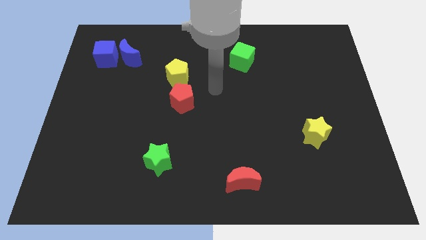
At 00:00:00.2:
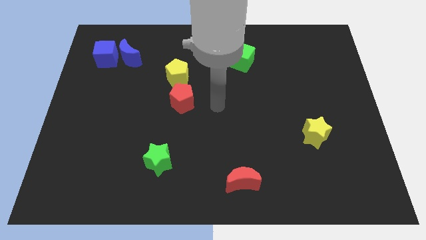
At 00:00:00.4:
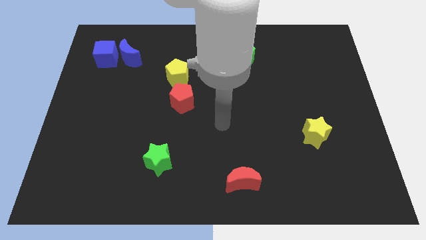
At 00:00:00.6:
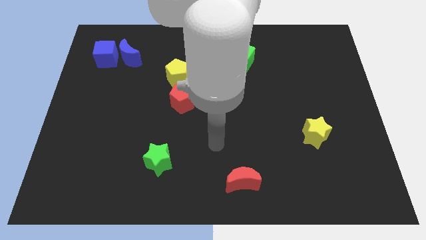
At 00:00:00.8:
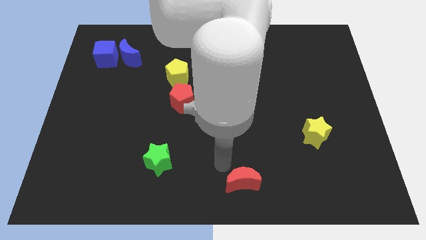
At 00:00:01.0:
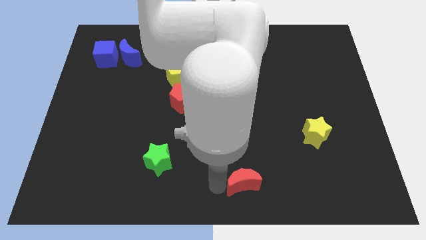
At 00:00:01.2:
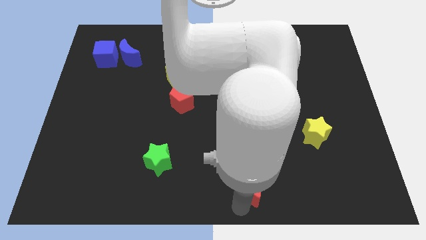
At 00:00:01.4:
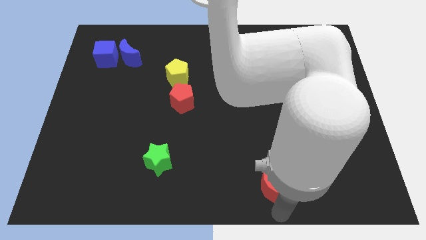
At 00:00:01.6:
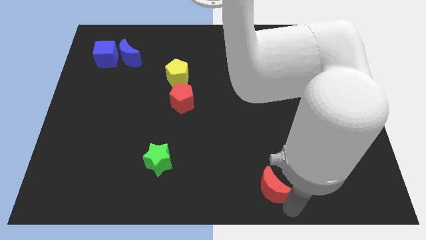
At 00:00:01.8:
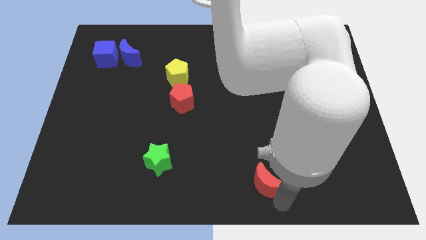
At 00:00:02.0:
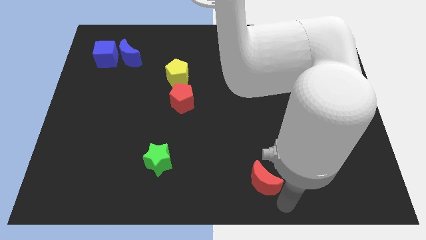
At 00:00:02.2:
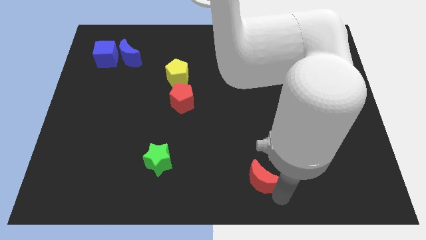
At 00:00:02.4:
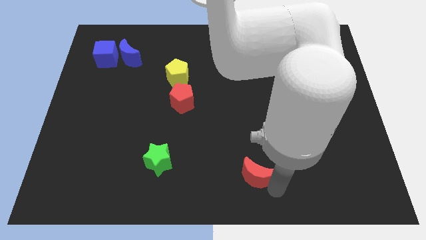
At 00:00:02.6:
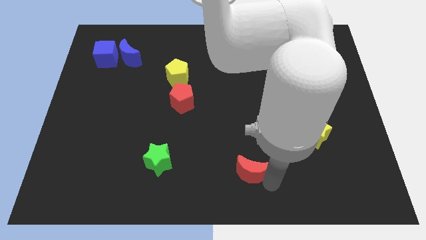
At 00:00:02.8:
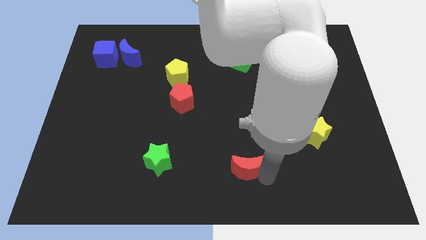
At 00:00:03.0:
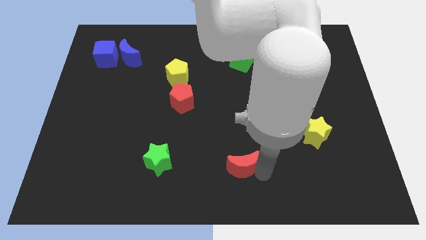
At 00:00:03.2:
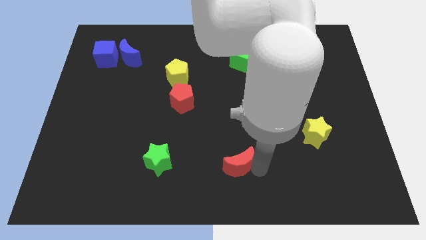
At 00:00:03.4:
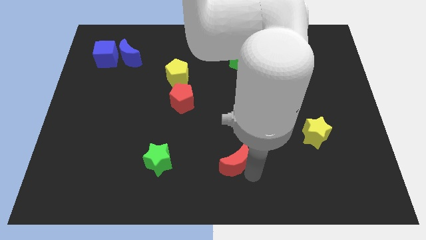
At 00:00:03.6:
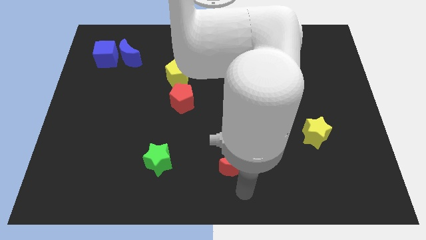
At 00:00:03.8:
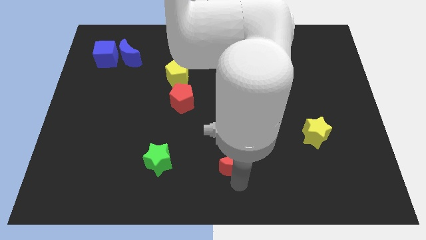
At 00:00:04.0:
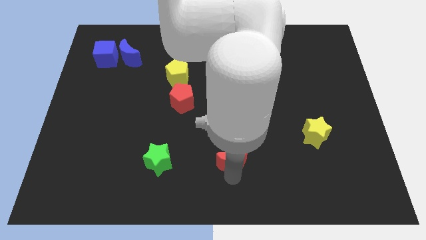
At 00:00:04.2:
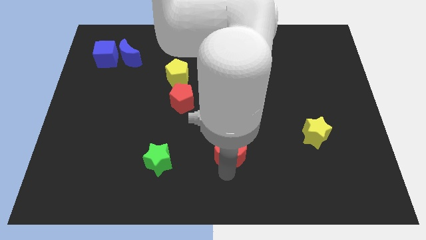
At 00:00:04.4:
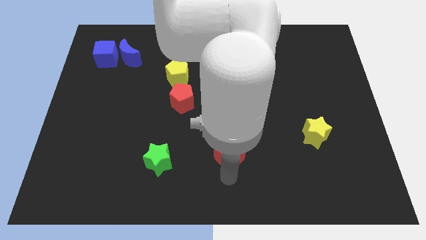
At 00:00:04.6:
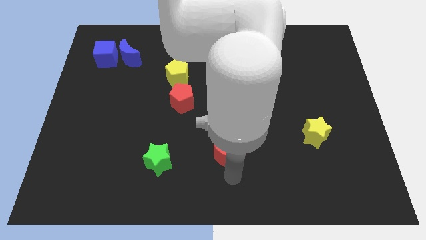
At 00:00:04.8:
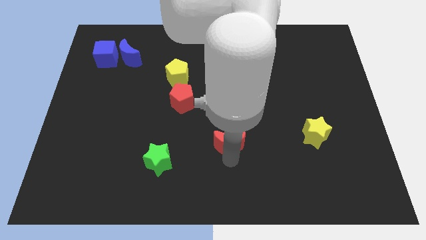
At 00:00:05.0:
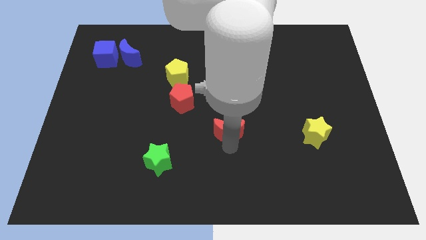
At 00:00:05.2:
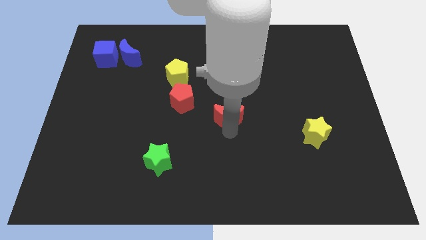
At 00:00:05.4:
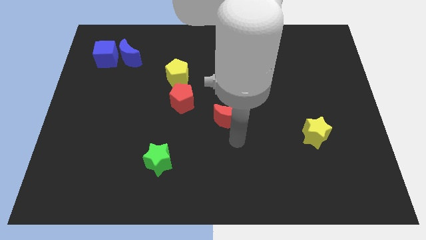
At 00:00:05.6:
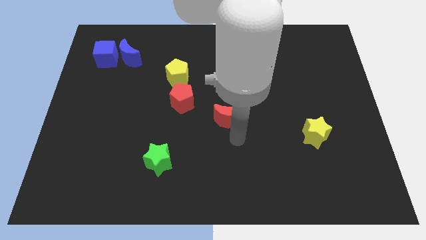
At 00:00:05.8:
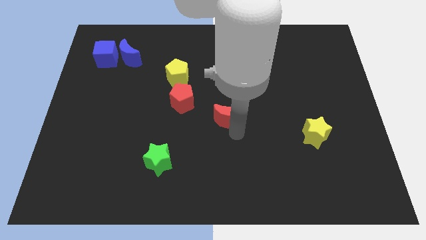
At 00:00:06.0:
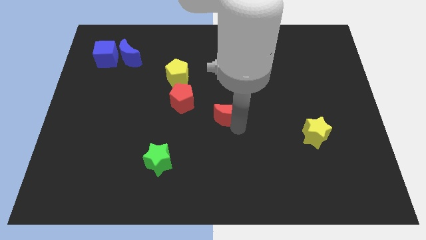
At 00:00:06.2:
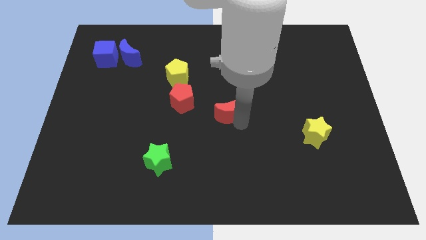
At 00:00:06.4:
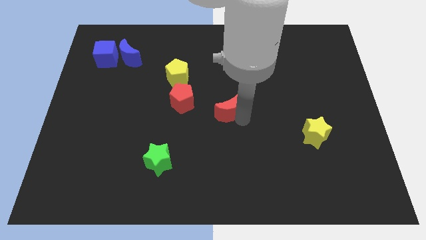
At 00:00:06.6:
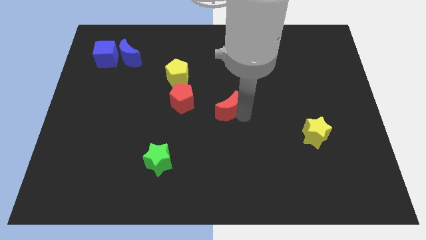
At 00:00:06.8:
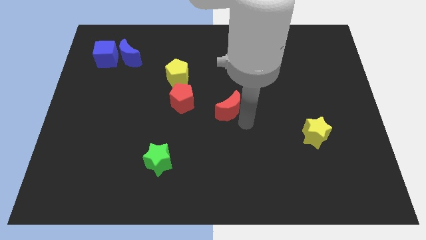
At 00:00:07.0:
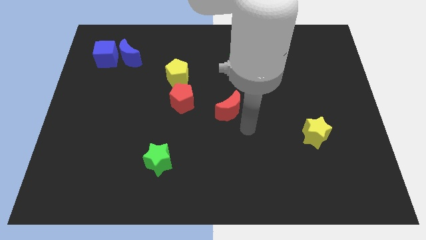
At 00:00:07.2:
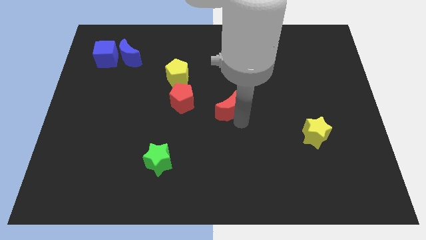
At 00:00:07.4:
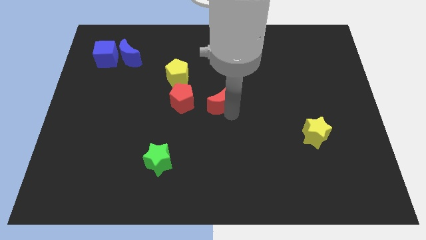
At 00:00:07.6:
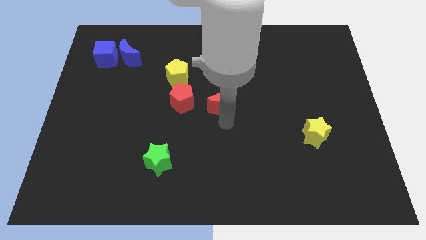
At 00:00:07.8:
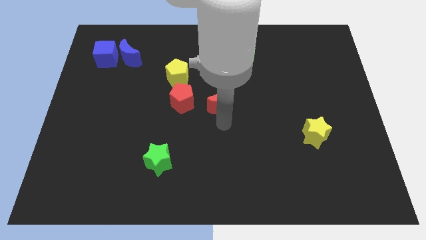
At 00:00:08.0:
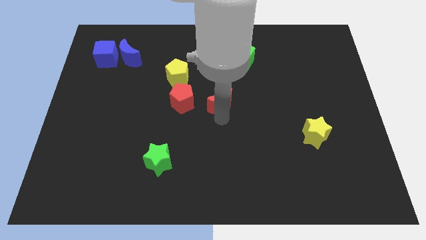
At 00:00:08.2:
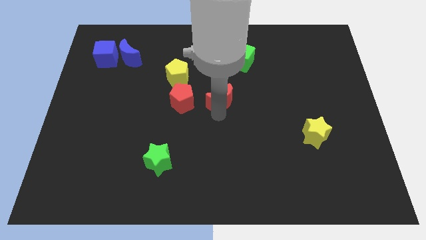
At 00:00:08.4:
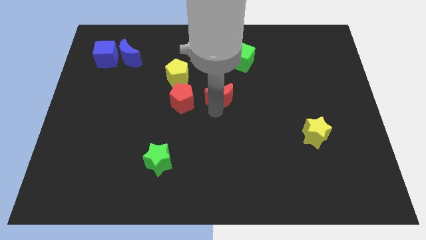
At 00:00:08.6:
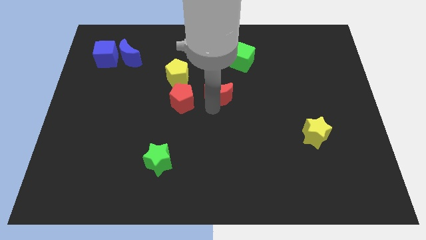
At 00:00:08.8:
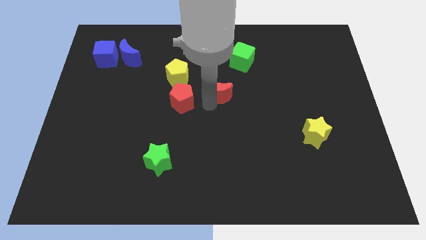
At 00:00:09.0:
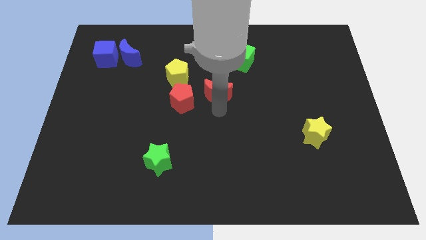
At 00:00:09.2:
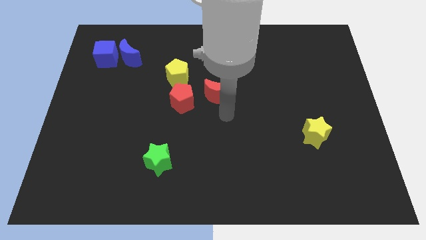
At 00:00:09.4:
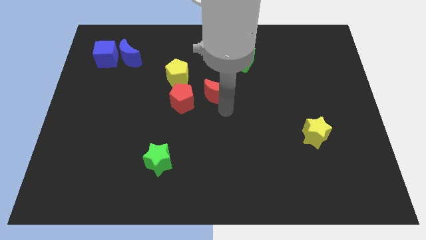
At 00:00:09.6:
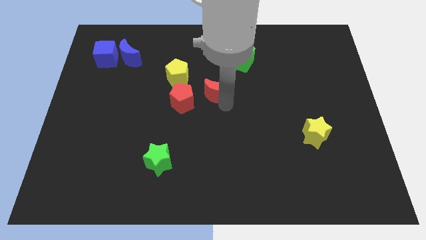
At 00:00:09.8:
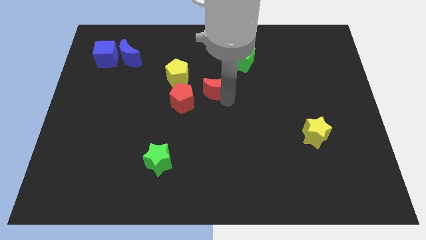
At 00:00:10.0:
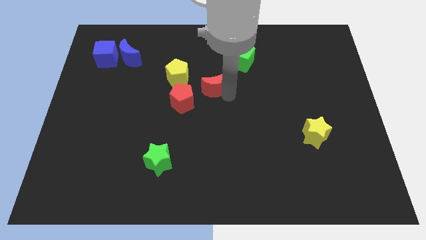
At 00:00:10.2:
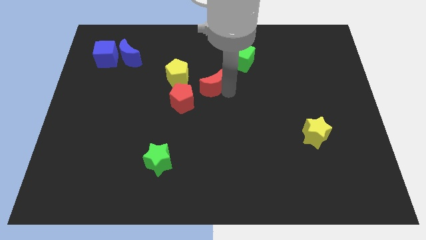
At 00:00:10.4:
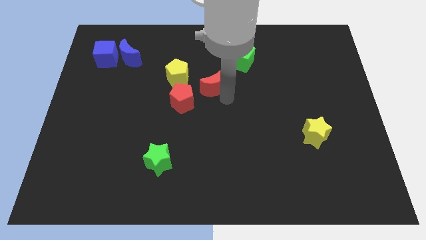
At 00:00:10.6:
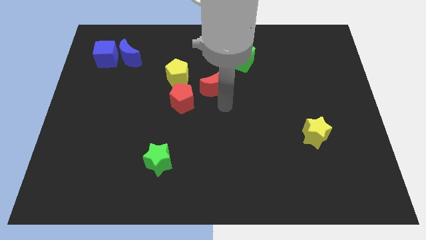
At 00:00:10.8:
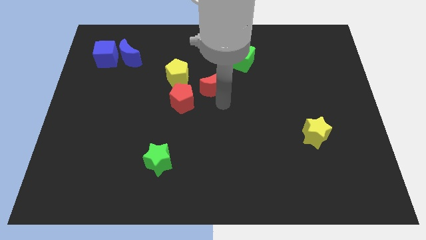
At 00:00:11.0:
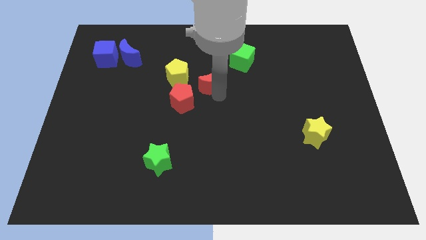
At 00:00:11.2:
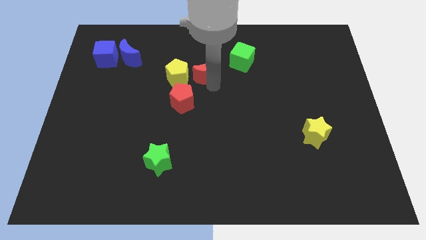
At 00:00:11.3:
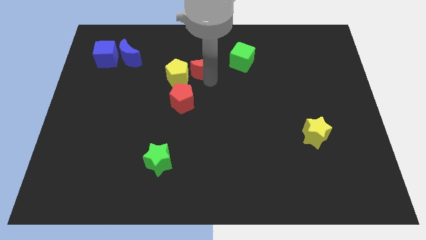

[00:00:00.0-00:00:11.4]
move the red moon to the left side of the green cube

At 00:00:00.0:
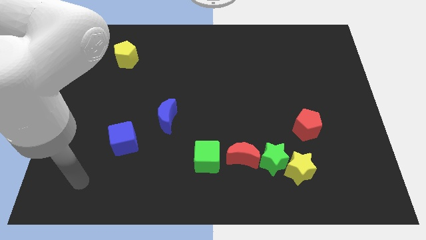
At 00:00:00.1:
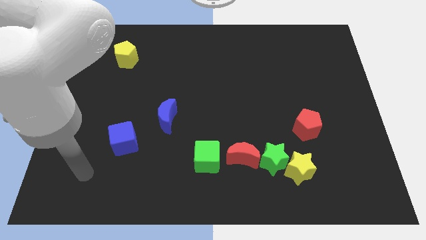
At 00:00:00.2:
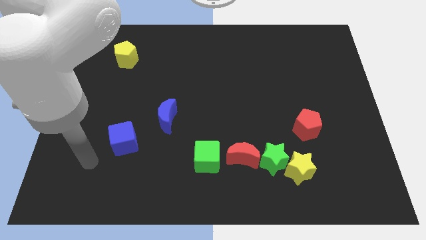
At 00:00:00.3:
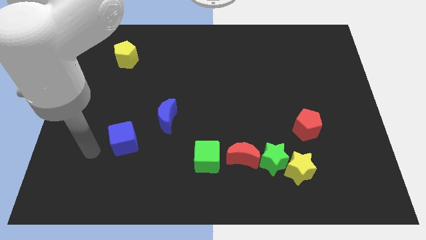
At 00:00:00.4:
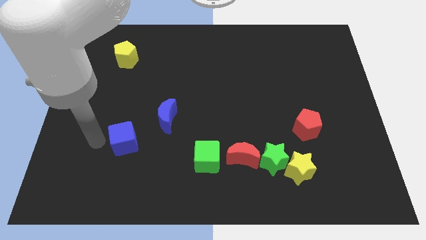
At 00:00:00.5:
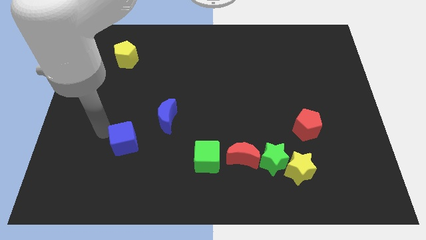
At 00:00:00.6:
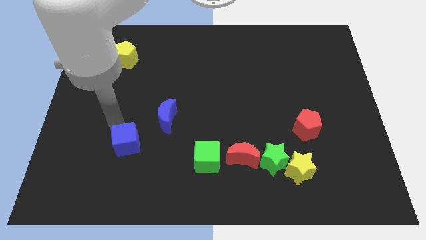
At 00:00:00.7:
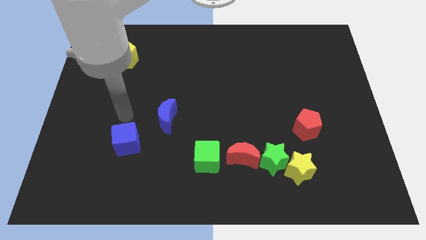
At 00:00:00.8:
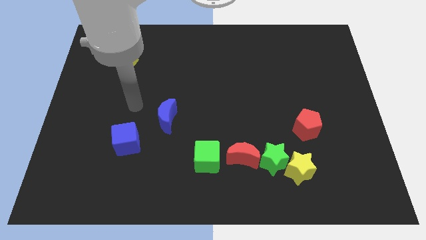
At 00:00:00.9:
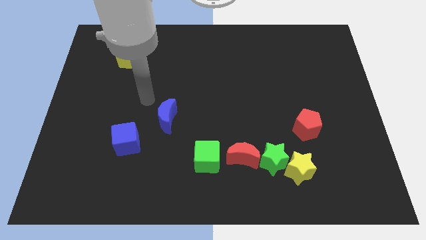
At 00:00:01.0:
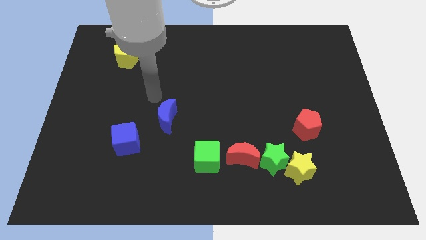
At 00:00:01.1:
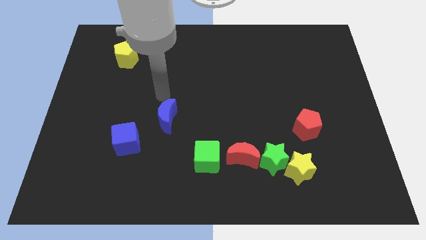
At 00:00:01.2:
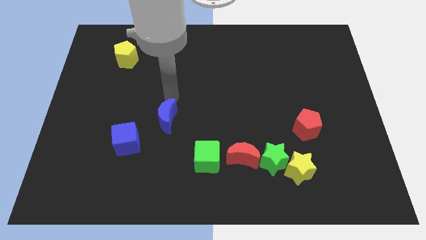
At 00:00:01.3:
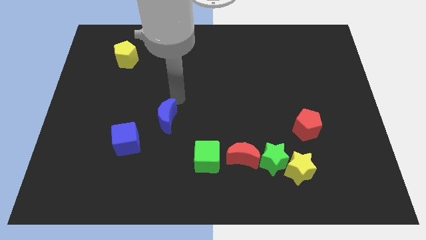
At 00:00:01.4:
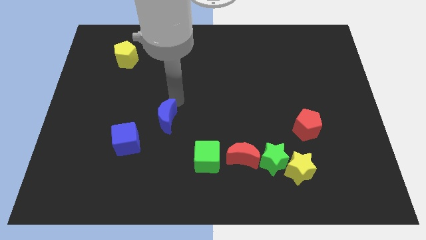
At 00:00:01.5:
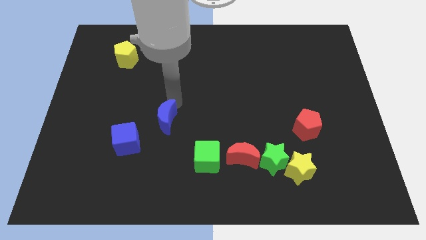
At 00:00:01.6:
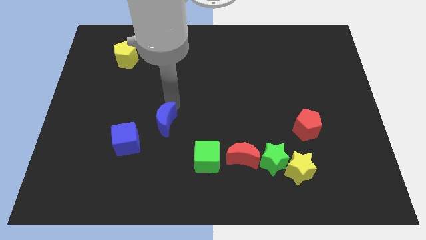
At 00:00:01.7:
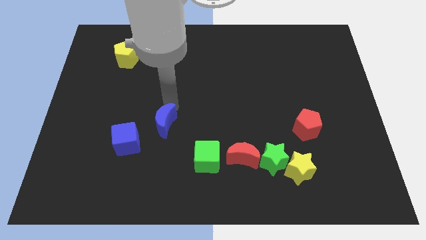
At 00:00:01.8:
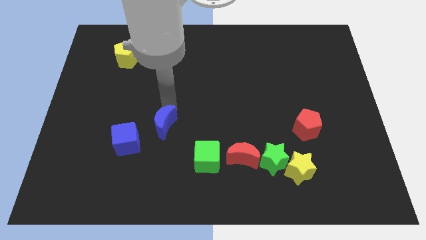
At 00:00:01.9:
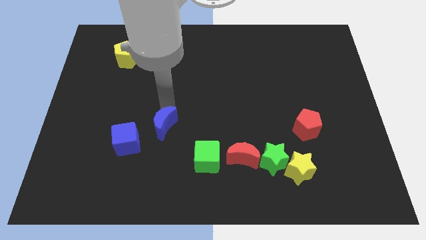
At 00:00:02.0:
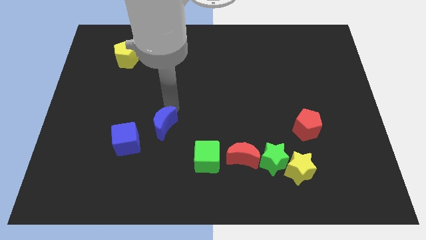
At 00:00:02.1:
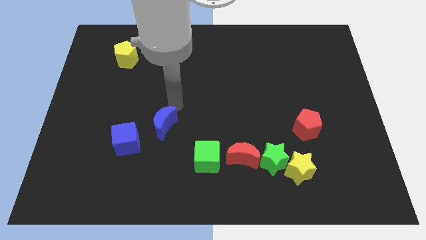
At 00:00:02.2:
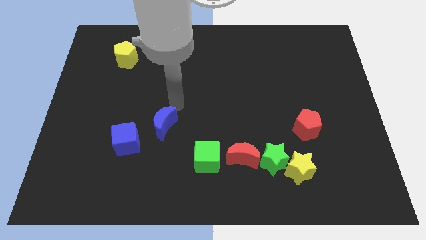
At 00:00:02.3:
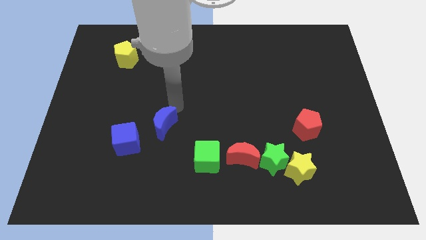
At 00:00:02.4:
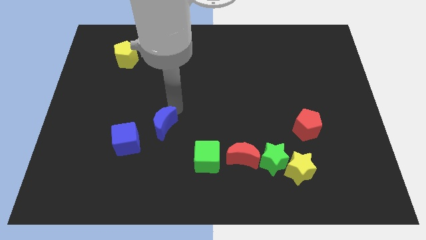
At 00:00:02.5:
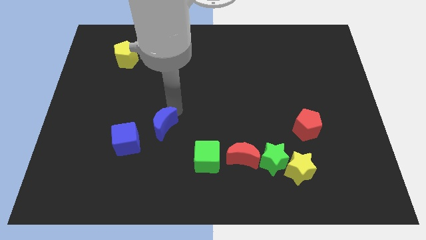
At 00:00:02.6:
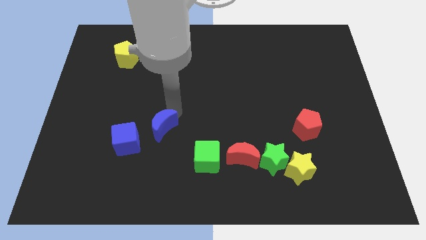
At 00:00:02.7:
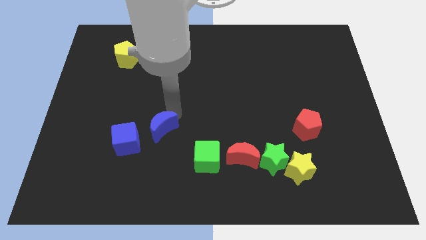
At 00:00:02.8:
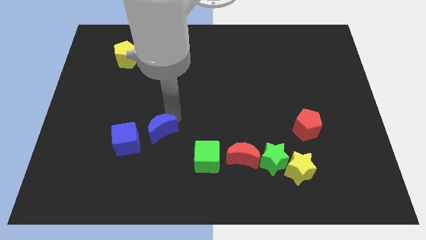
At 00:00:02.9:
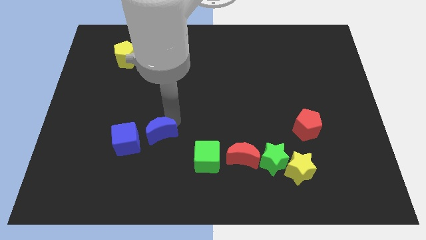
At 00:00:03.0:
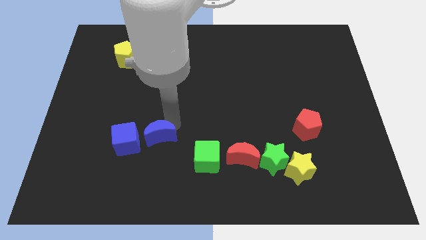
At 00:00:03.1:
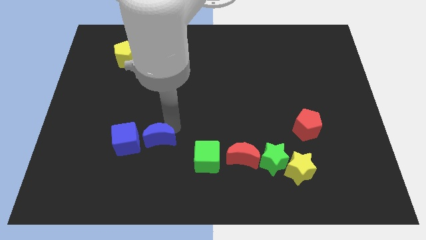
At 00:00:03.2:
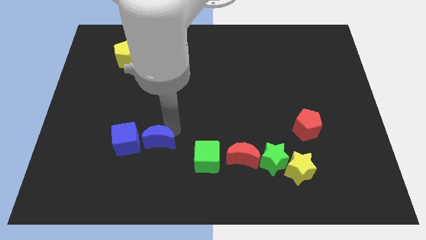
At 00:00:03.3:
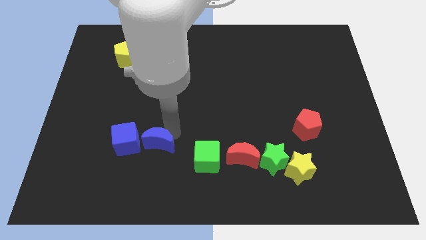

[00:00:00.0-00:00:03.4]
push the blue moon to the bottom right side of the blue cube
